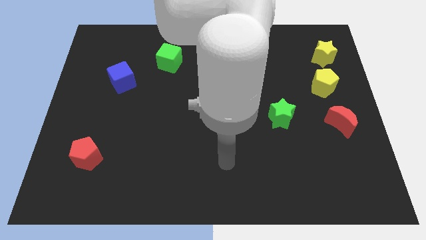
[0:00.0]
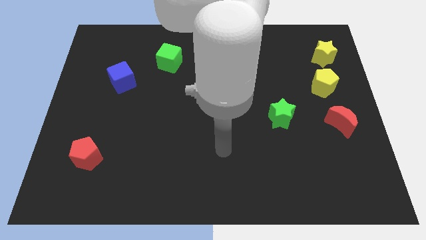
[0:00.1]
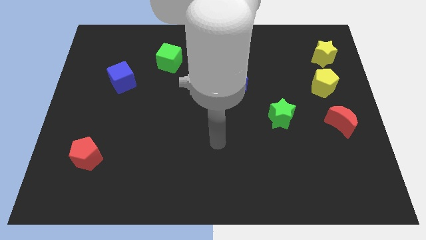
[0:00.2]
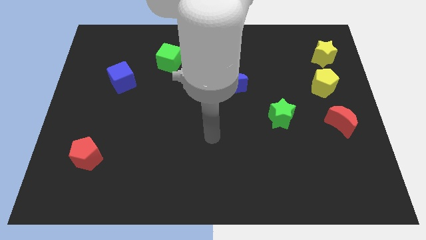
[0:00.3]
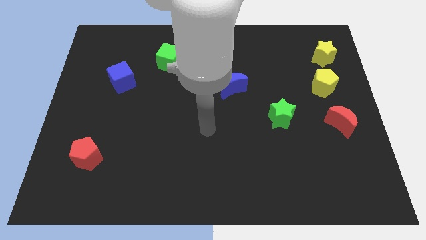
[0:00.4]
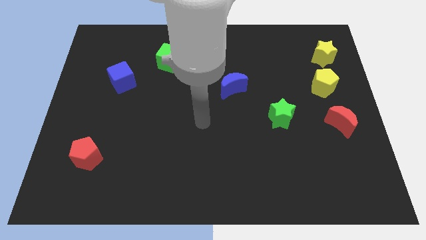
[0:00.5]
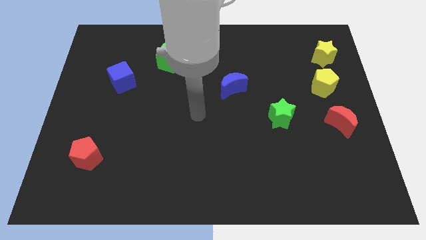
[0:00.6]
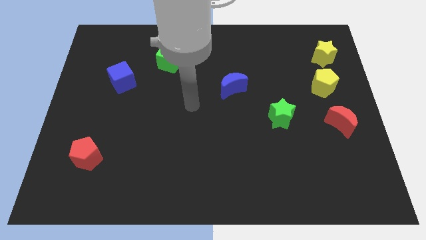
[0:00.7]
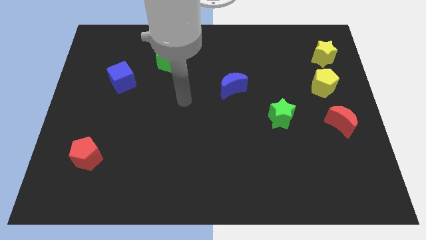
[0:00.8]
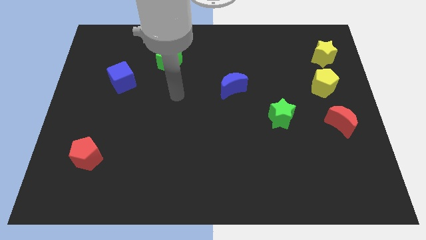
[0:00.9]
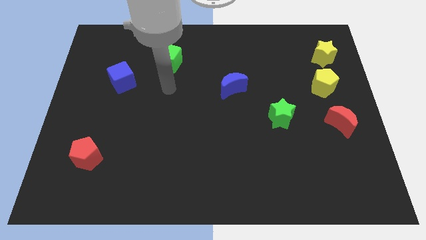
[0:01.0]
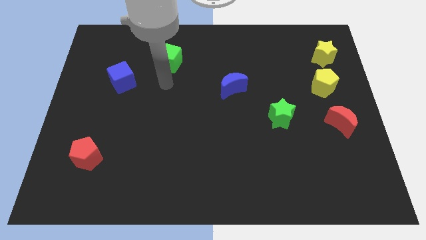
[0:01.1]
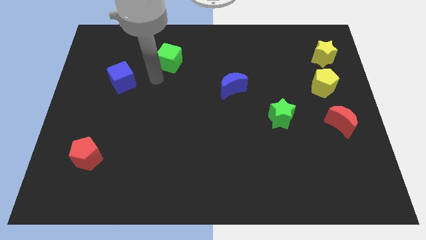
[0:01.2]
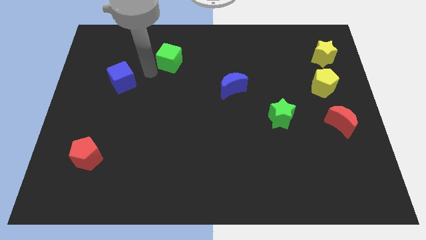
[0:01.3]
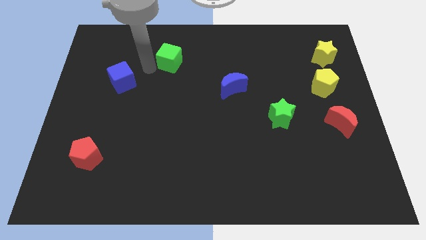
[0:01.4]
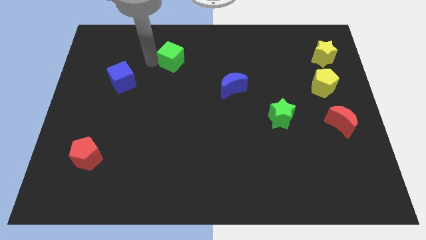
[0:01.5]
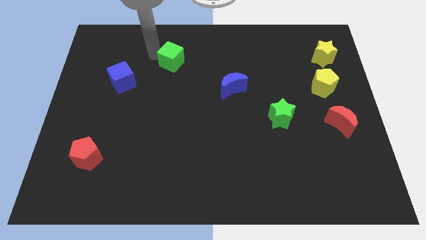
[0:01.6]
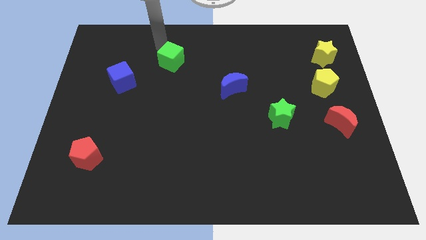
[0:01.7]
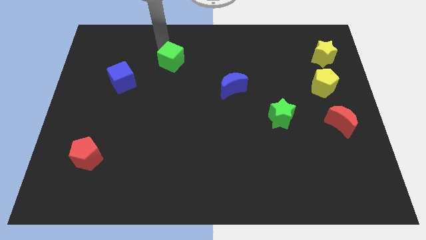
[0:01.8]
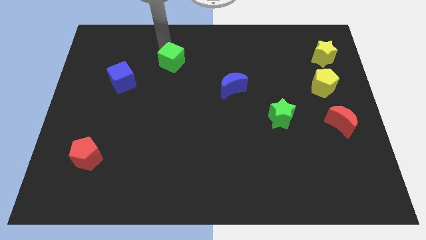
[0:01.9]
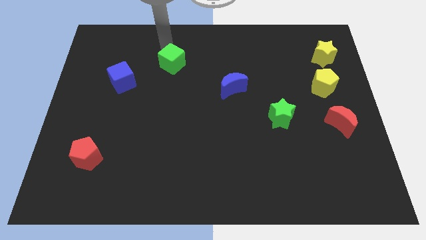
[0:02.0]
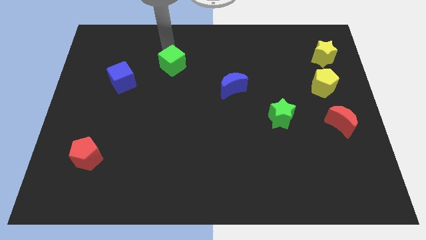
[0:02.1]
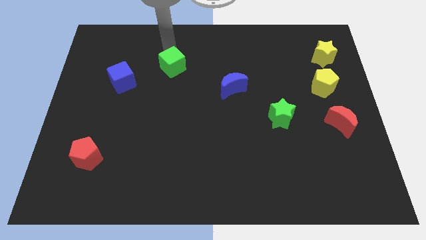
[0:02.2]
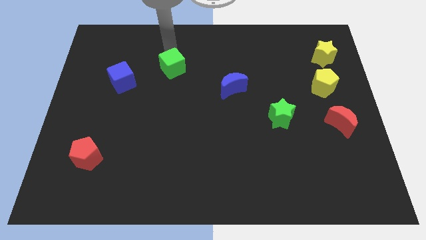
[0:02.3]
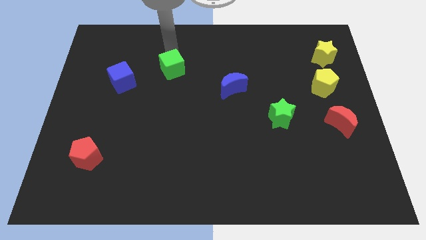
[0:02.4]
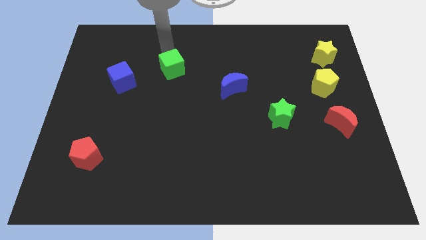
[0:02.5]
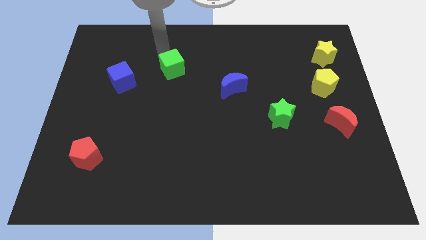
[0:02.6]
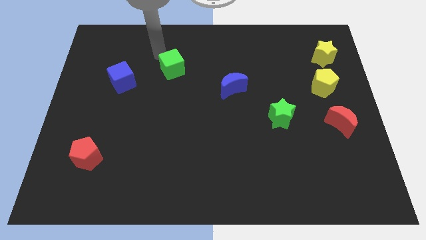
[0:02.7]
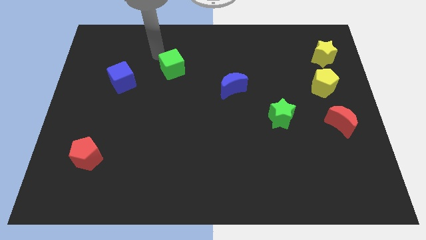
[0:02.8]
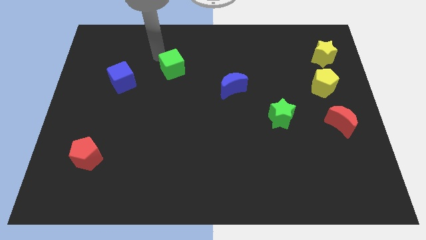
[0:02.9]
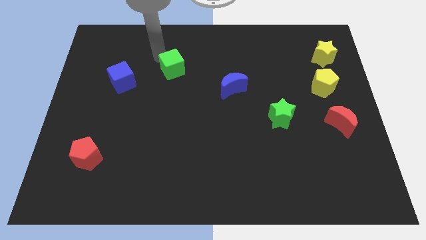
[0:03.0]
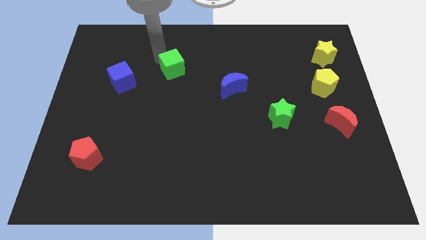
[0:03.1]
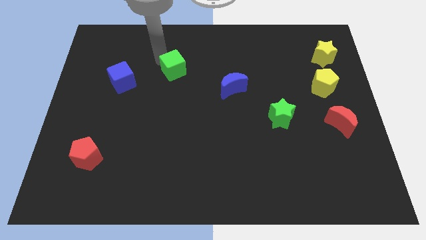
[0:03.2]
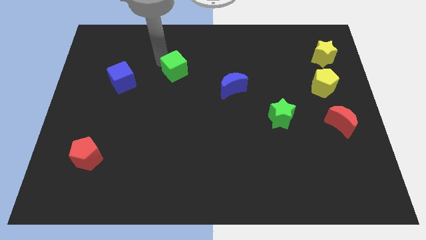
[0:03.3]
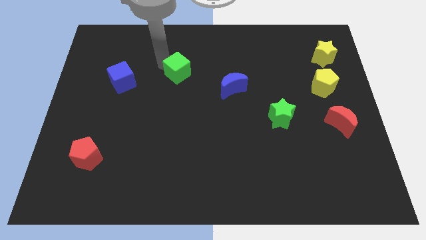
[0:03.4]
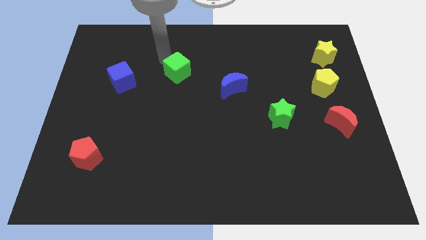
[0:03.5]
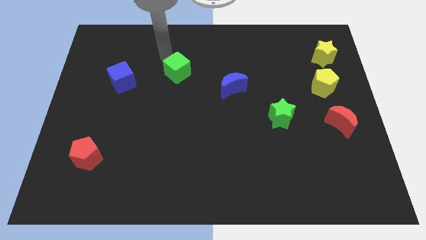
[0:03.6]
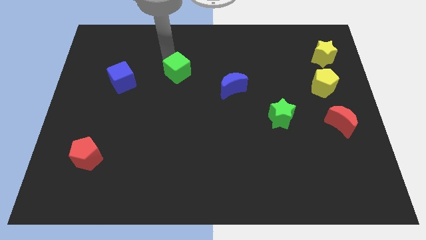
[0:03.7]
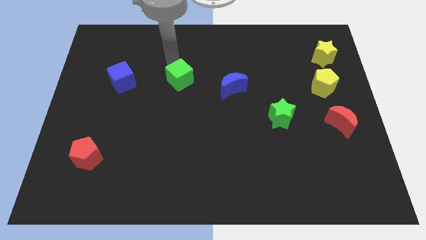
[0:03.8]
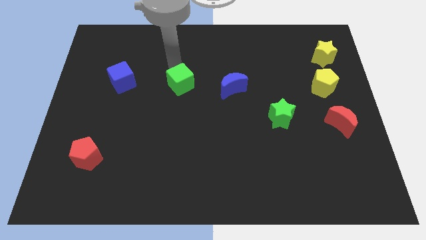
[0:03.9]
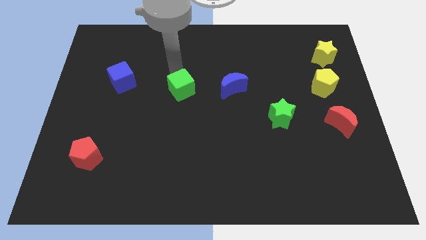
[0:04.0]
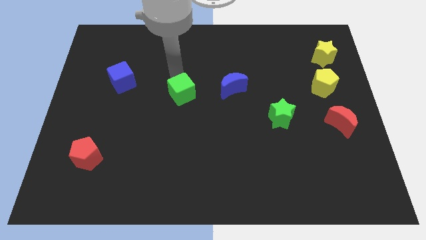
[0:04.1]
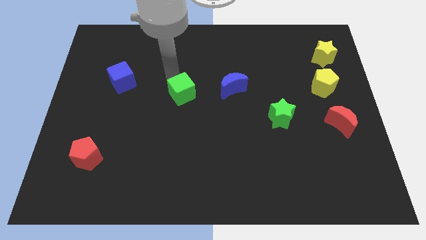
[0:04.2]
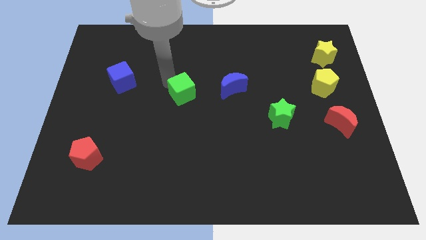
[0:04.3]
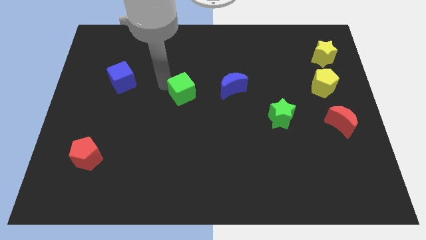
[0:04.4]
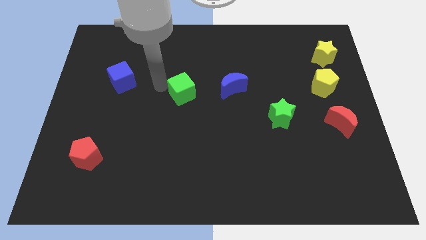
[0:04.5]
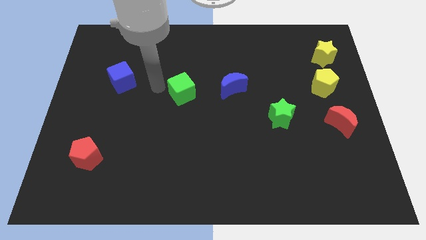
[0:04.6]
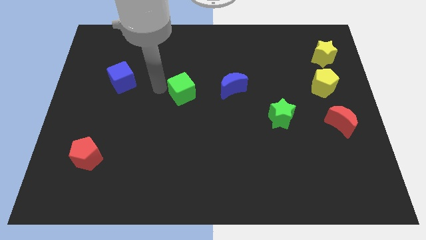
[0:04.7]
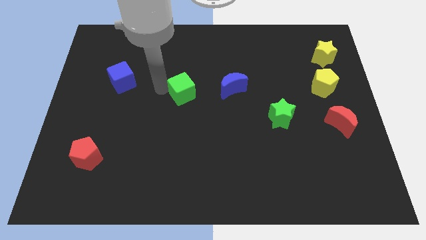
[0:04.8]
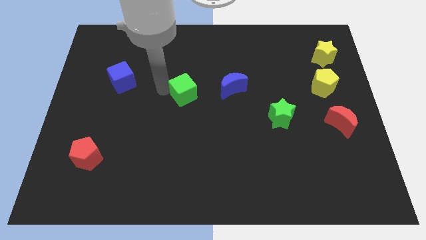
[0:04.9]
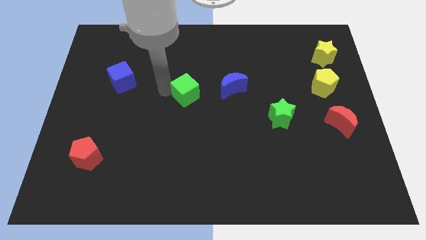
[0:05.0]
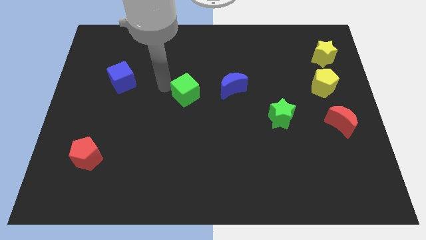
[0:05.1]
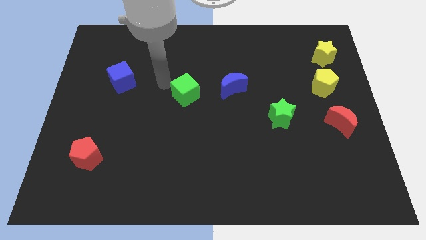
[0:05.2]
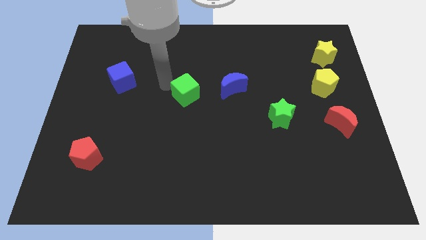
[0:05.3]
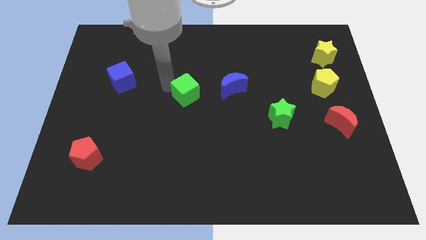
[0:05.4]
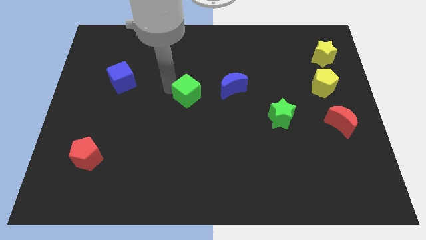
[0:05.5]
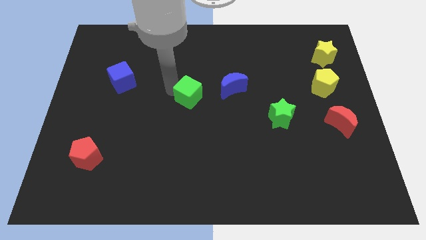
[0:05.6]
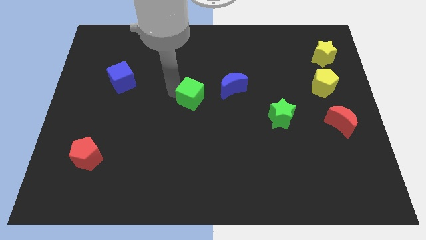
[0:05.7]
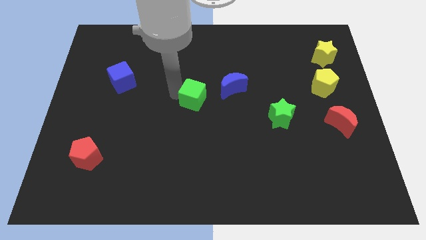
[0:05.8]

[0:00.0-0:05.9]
move the green cube to the bottom left of the blue moon
